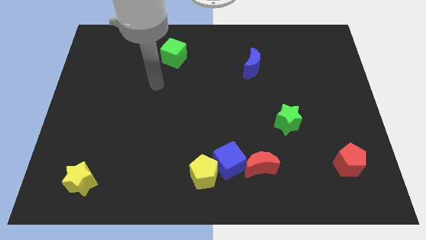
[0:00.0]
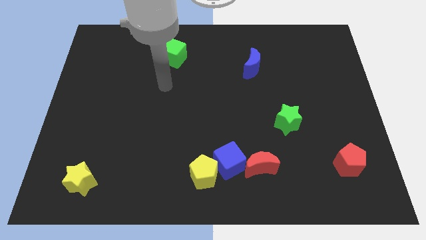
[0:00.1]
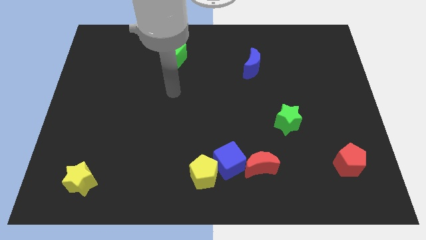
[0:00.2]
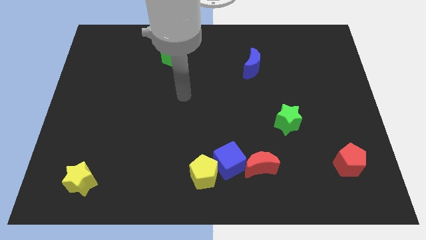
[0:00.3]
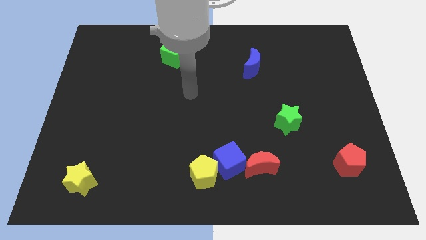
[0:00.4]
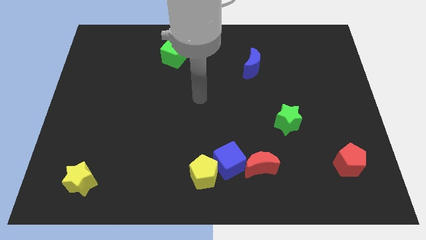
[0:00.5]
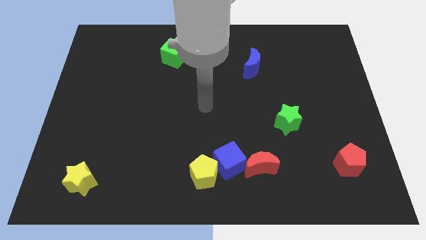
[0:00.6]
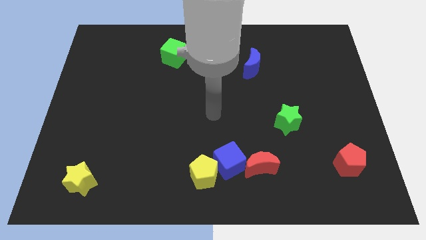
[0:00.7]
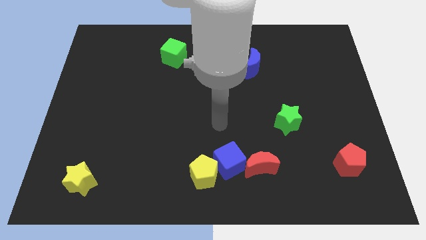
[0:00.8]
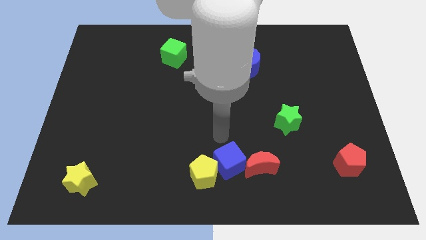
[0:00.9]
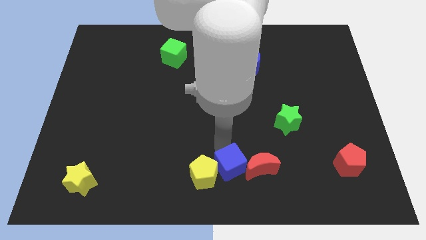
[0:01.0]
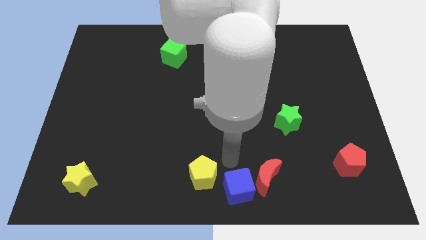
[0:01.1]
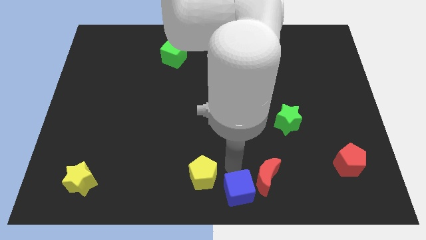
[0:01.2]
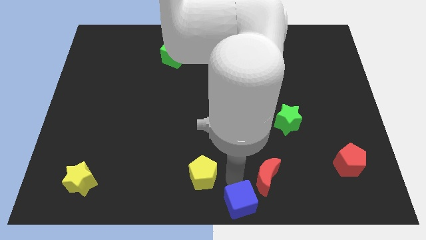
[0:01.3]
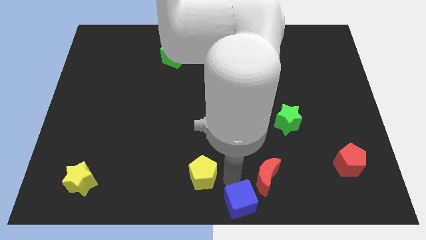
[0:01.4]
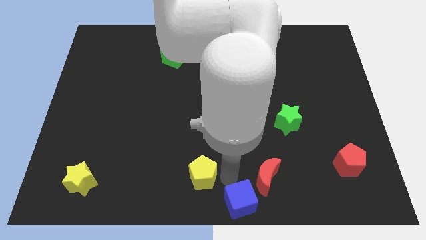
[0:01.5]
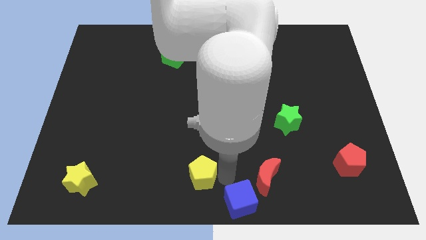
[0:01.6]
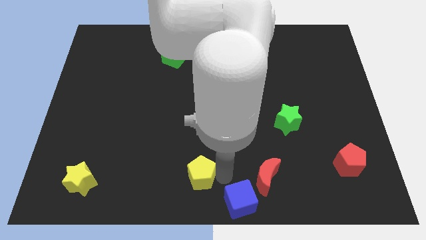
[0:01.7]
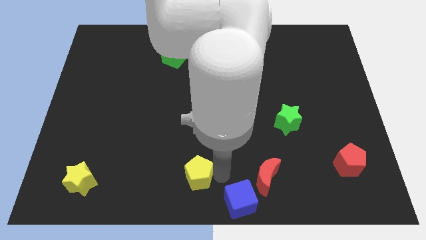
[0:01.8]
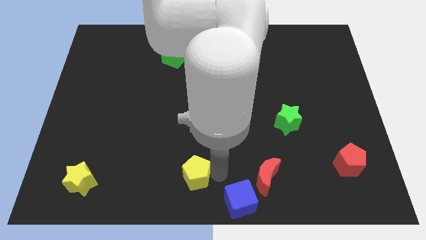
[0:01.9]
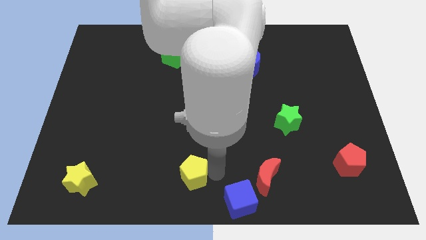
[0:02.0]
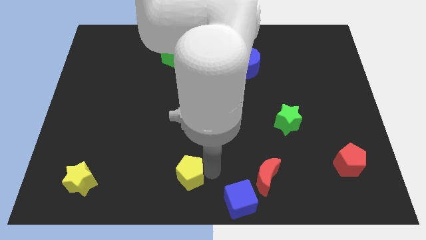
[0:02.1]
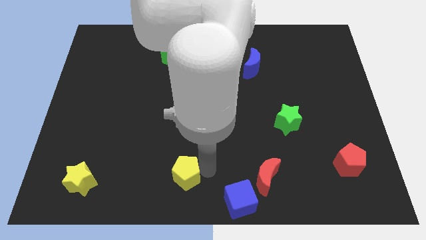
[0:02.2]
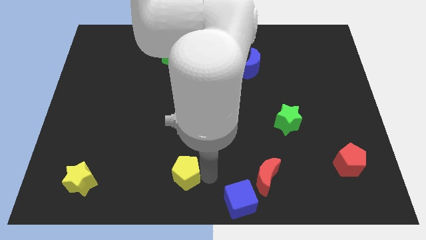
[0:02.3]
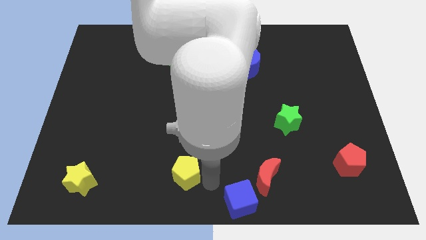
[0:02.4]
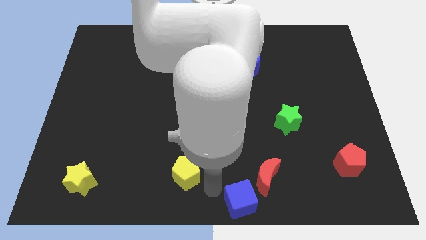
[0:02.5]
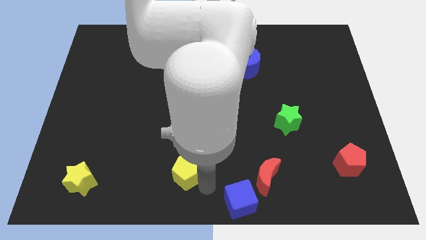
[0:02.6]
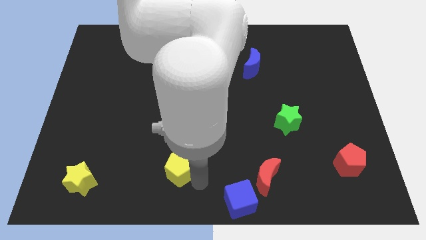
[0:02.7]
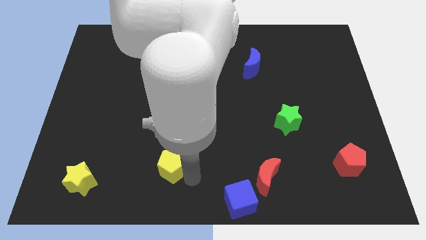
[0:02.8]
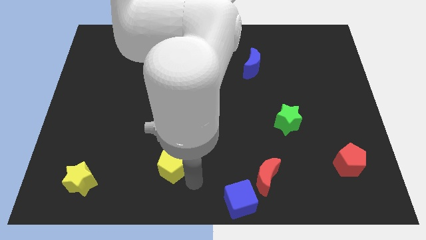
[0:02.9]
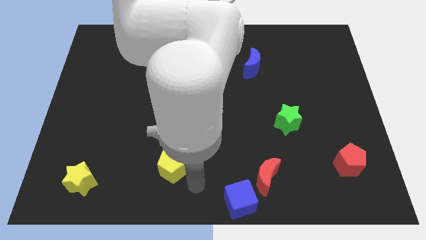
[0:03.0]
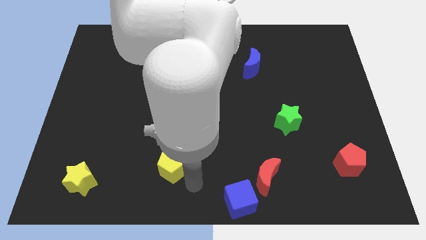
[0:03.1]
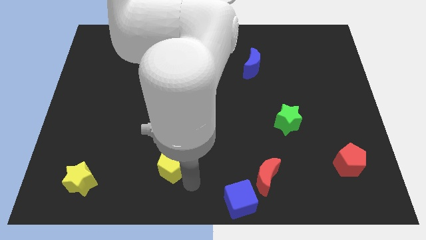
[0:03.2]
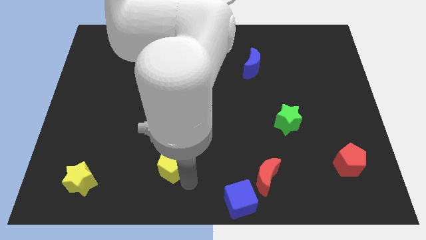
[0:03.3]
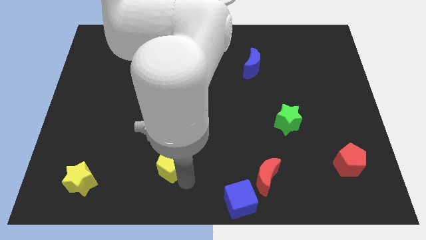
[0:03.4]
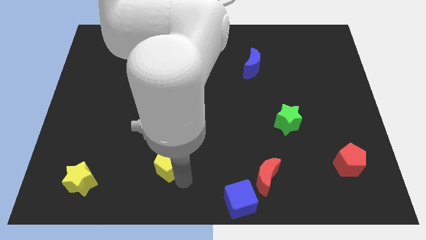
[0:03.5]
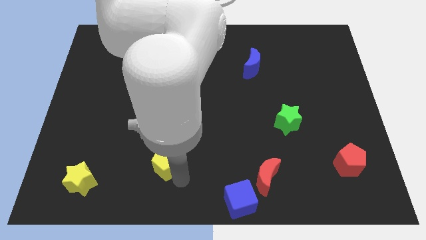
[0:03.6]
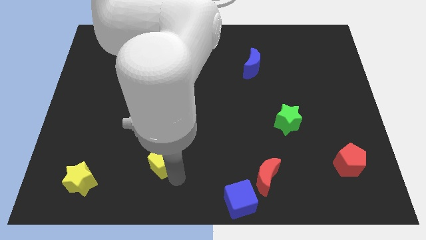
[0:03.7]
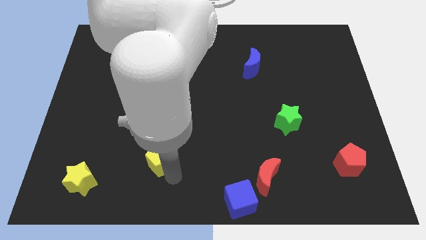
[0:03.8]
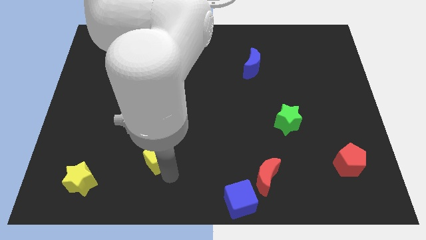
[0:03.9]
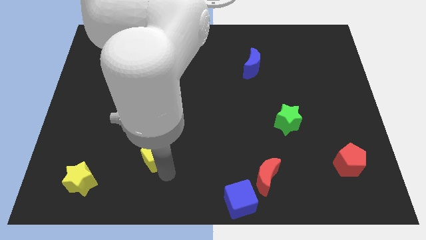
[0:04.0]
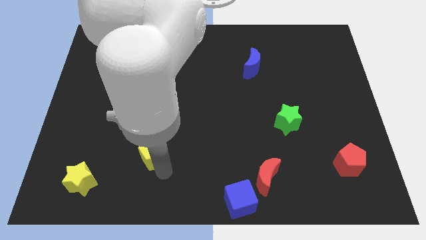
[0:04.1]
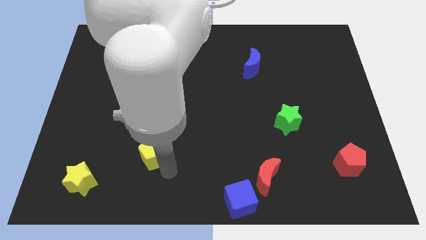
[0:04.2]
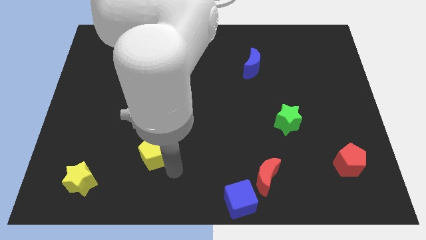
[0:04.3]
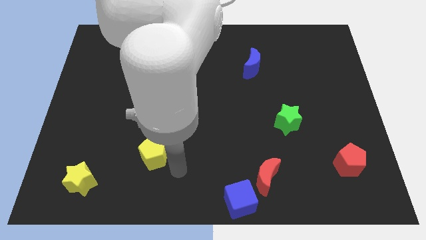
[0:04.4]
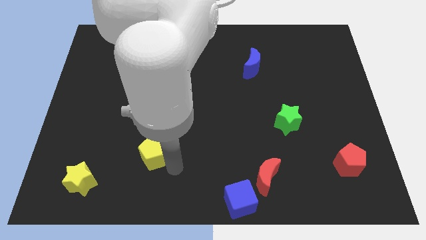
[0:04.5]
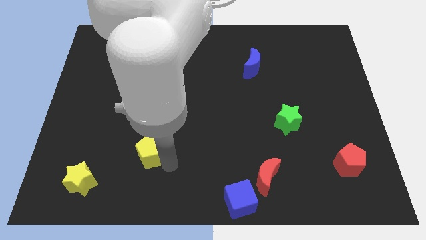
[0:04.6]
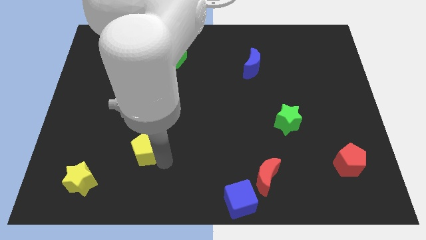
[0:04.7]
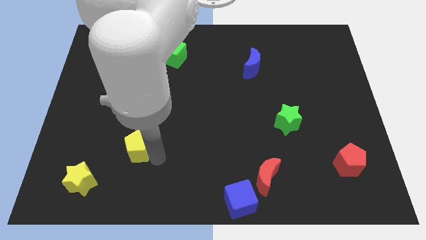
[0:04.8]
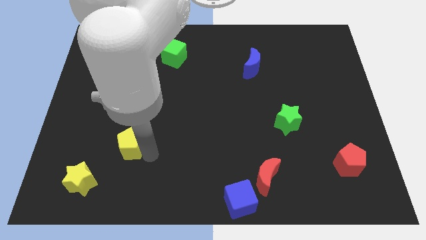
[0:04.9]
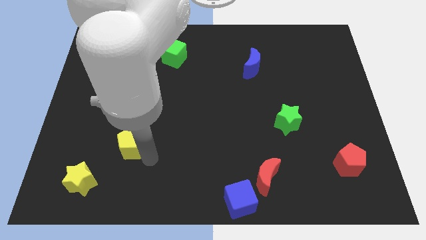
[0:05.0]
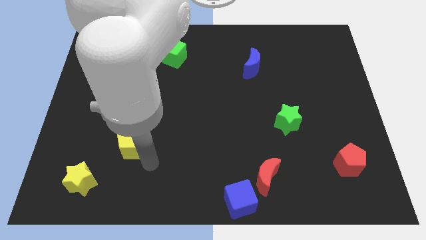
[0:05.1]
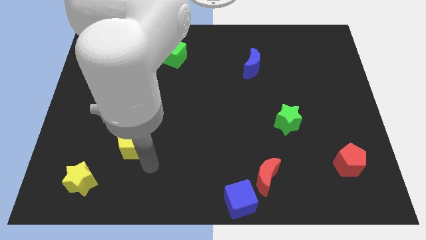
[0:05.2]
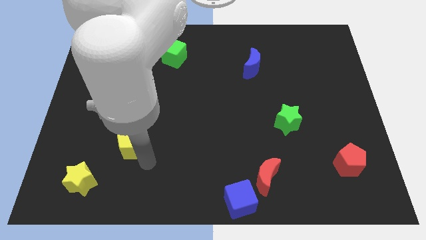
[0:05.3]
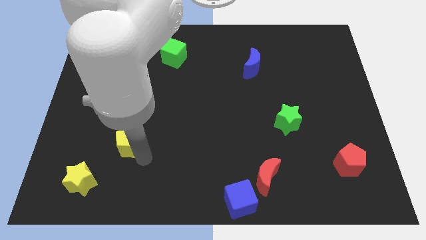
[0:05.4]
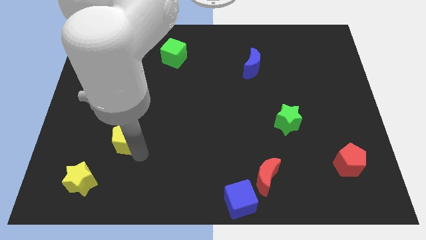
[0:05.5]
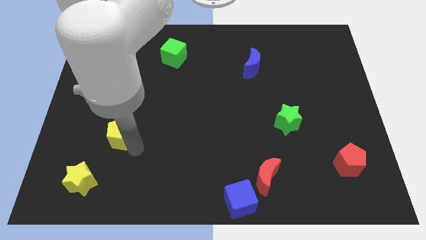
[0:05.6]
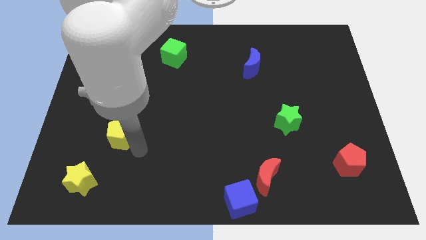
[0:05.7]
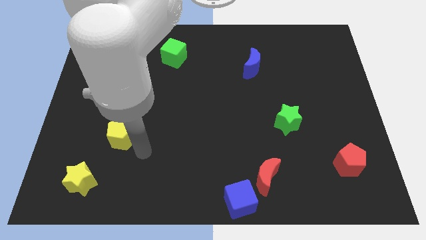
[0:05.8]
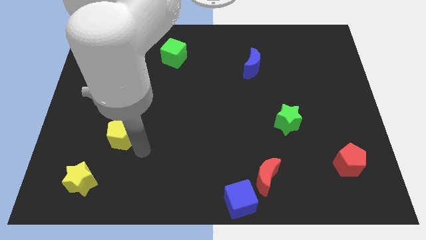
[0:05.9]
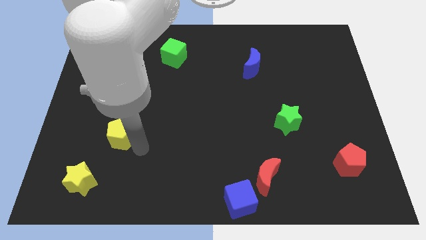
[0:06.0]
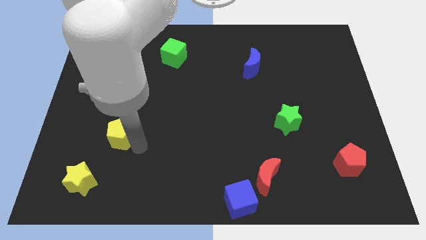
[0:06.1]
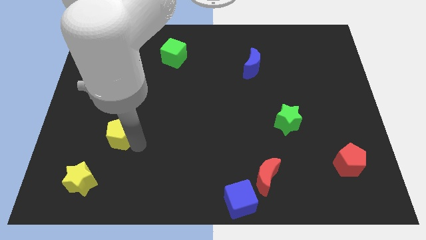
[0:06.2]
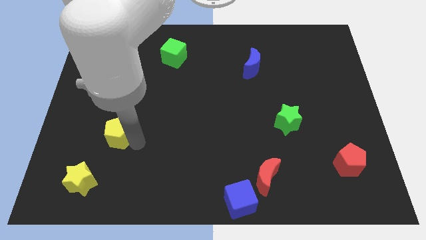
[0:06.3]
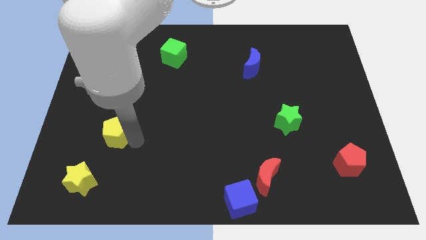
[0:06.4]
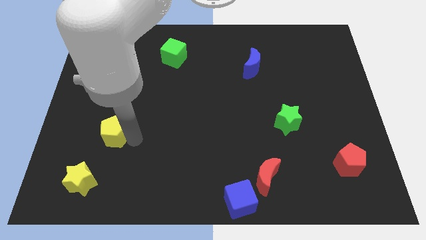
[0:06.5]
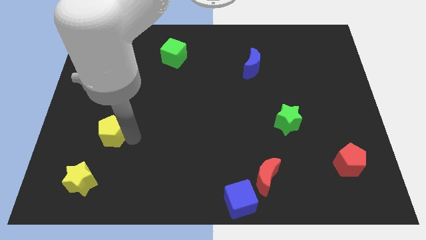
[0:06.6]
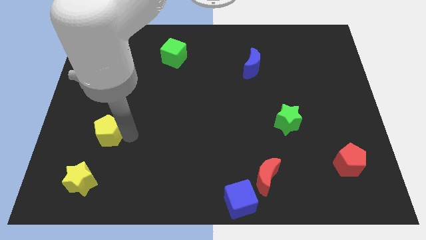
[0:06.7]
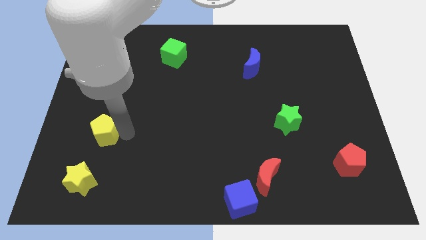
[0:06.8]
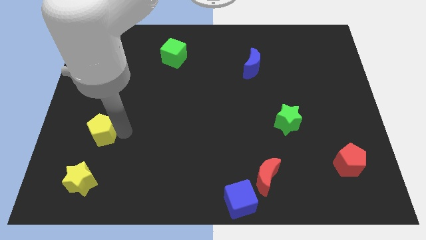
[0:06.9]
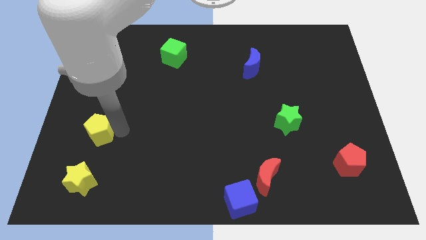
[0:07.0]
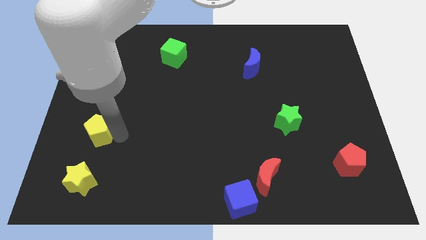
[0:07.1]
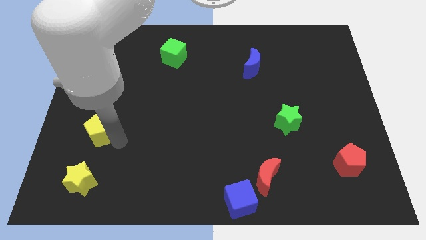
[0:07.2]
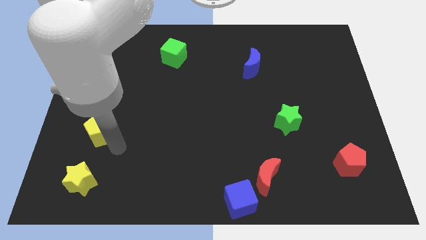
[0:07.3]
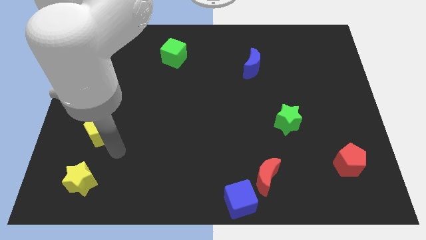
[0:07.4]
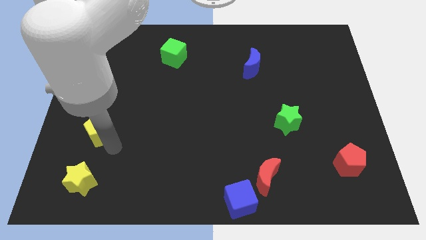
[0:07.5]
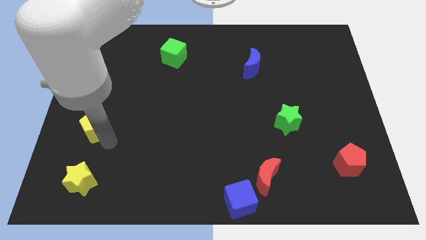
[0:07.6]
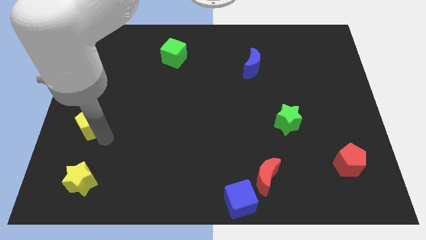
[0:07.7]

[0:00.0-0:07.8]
put the yellow pentagon to the left side of the board
